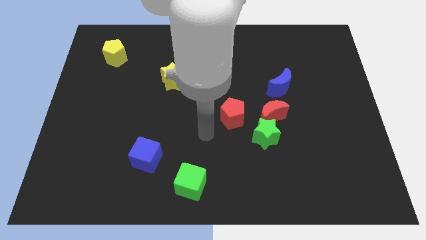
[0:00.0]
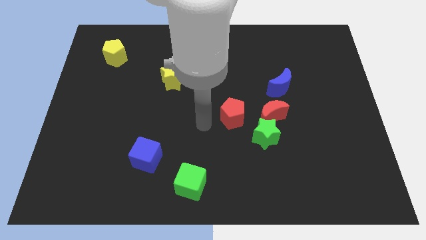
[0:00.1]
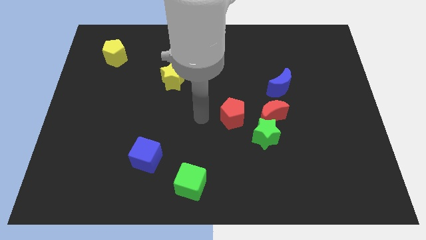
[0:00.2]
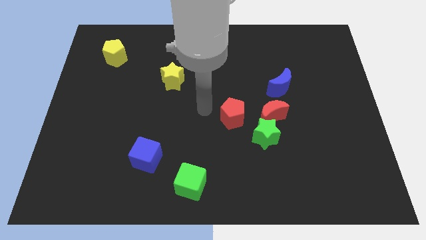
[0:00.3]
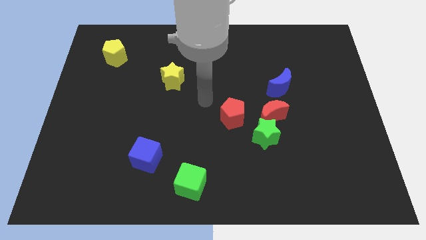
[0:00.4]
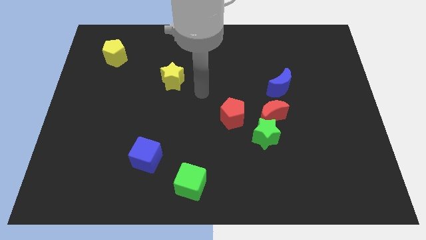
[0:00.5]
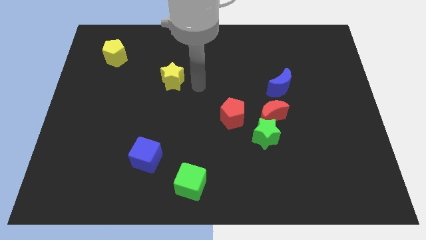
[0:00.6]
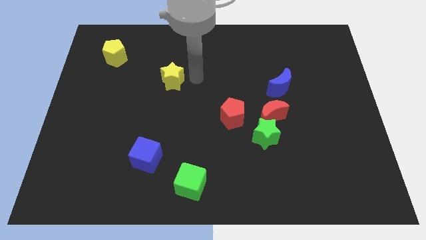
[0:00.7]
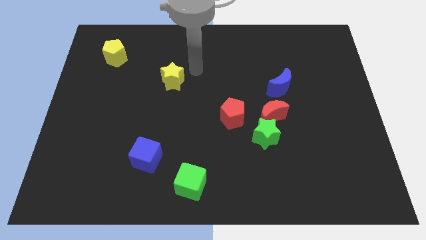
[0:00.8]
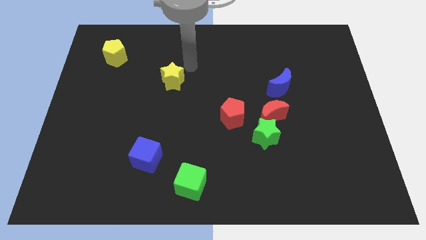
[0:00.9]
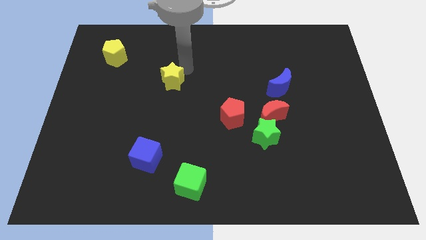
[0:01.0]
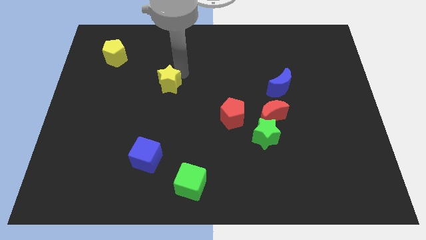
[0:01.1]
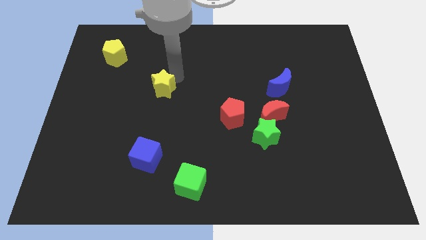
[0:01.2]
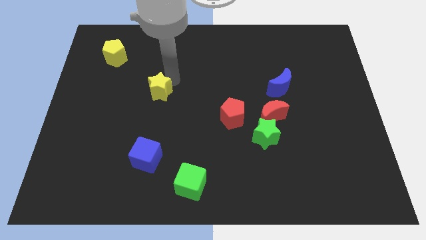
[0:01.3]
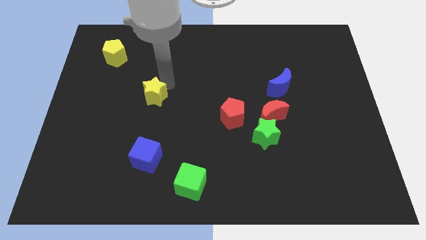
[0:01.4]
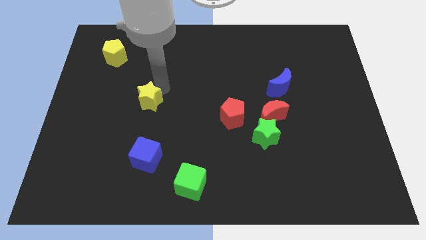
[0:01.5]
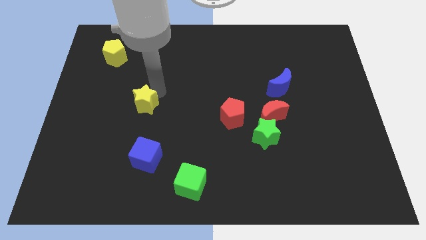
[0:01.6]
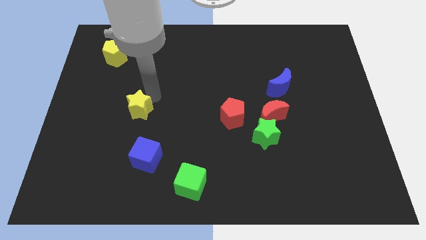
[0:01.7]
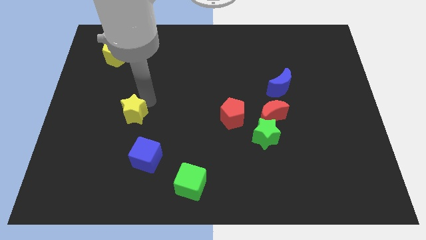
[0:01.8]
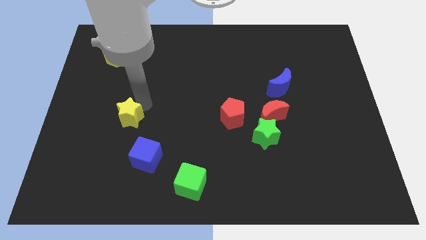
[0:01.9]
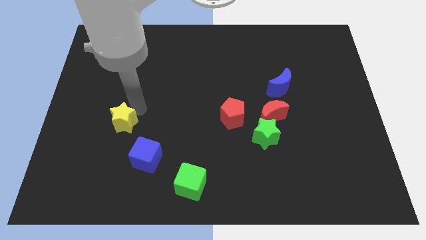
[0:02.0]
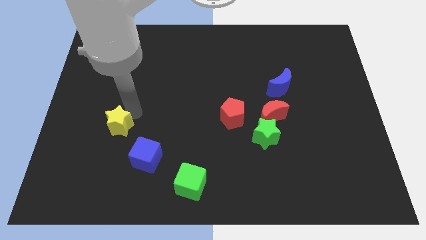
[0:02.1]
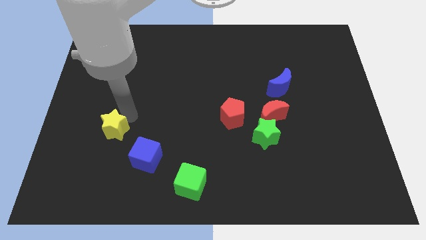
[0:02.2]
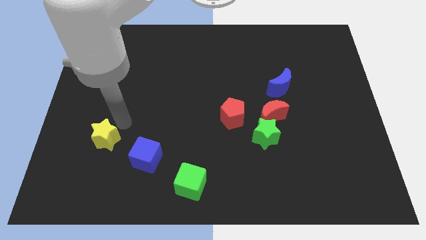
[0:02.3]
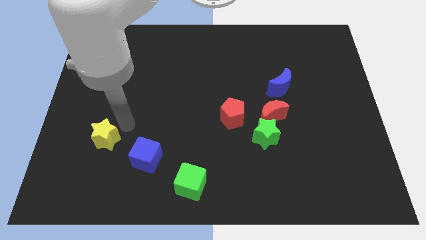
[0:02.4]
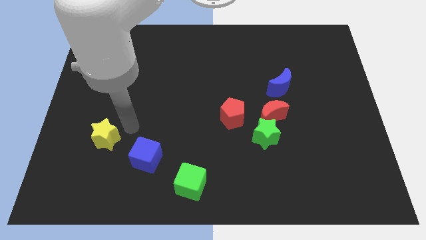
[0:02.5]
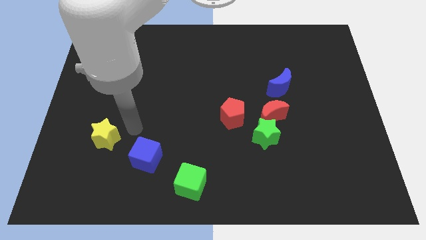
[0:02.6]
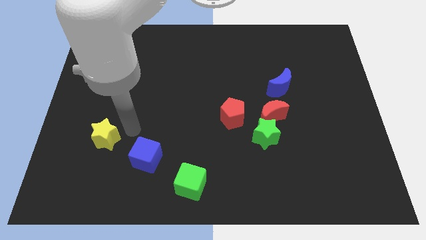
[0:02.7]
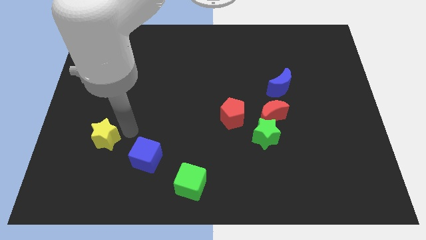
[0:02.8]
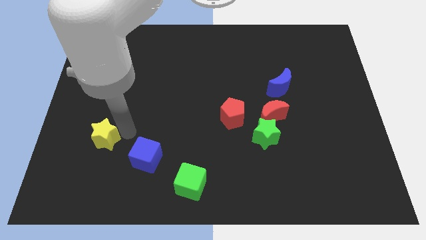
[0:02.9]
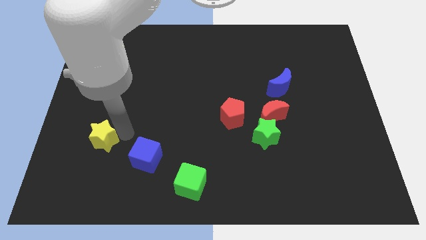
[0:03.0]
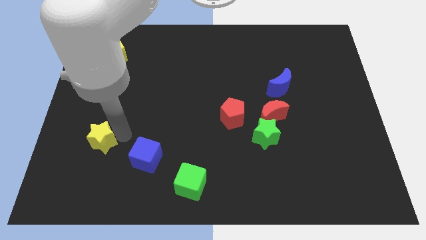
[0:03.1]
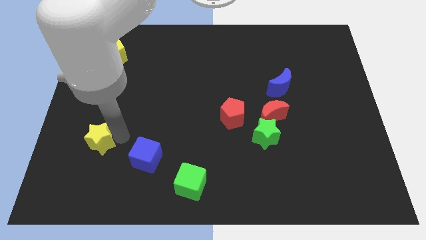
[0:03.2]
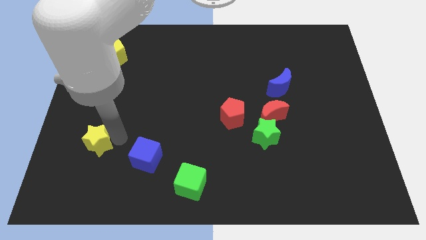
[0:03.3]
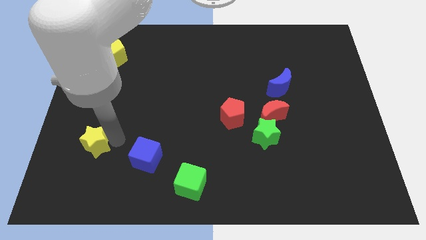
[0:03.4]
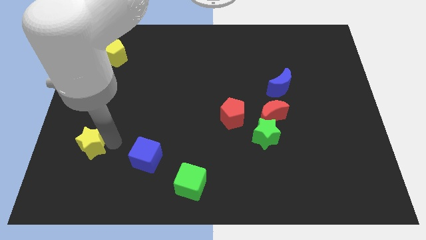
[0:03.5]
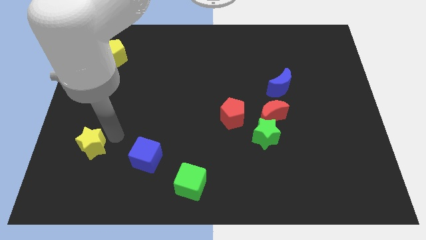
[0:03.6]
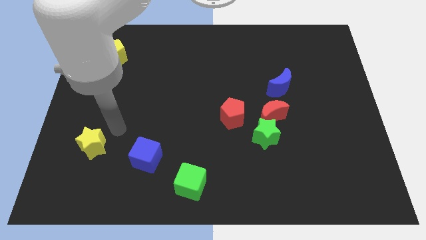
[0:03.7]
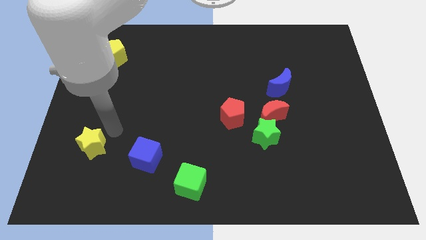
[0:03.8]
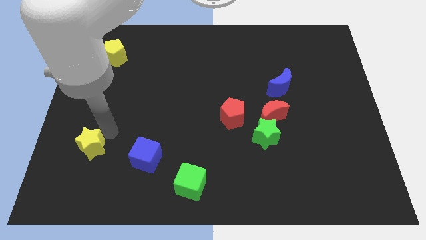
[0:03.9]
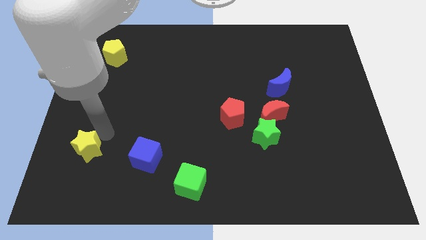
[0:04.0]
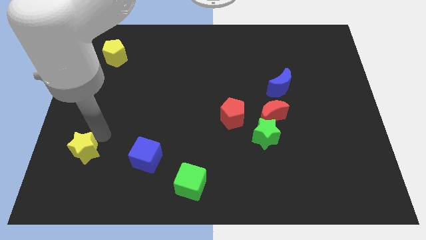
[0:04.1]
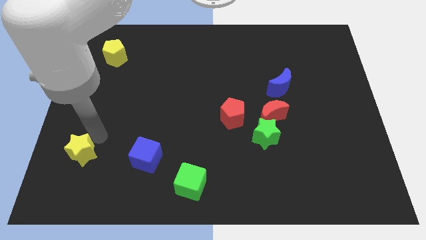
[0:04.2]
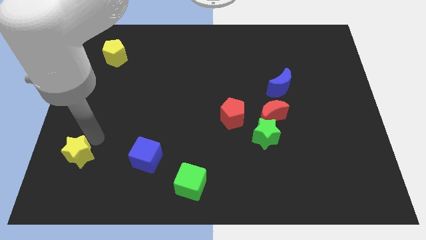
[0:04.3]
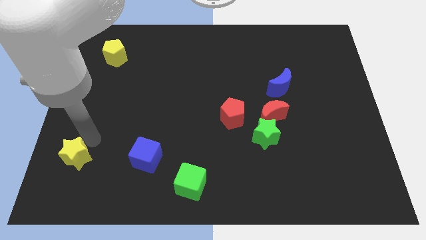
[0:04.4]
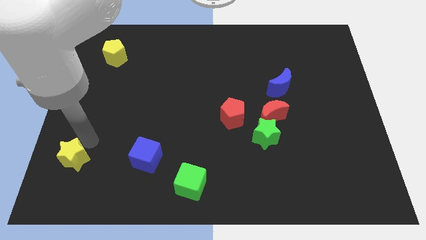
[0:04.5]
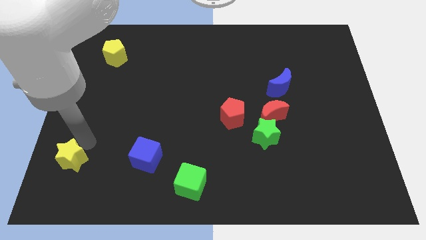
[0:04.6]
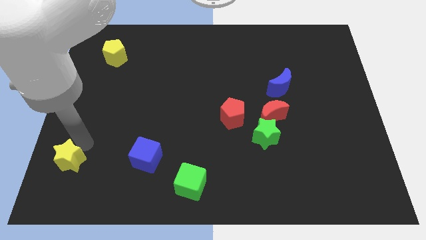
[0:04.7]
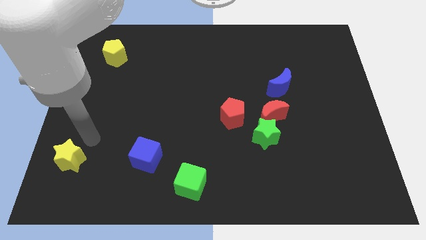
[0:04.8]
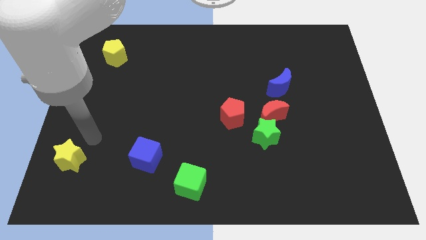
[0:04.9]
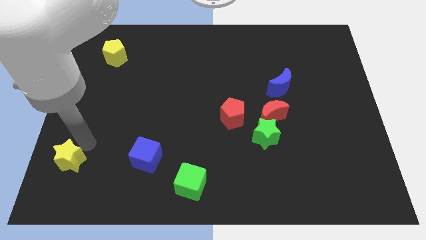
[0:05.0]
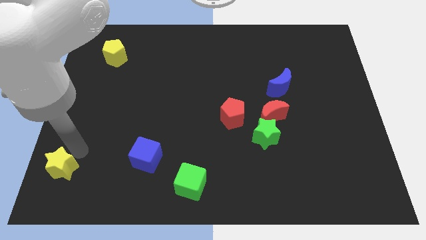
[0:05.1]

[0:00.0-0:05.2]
move the yellow star to the bottom left

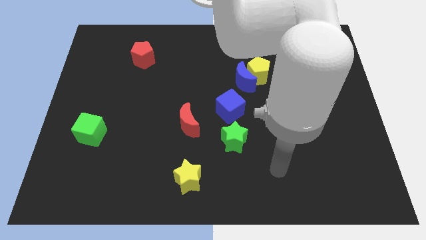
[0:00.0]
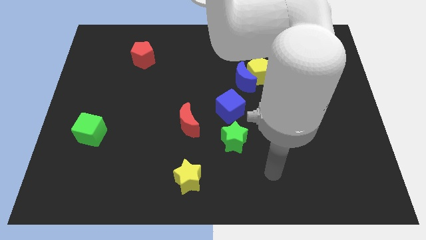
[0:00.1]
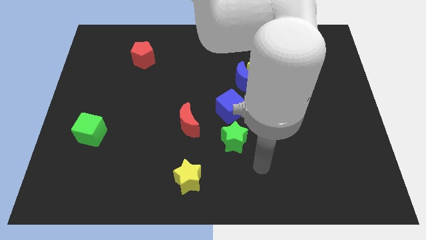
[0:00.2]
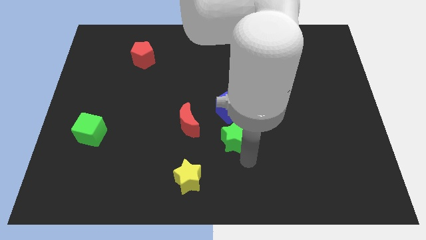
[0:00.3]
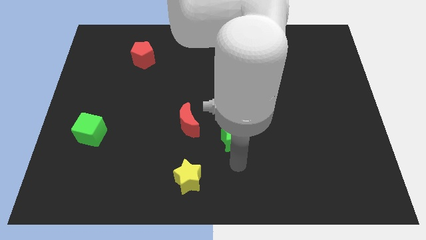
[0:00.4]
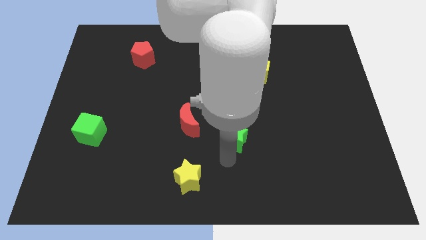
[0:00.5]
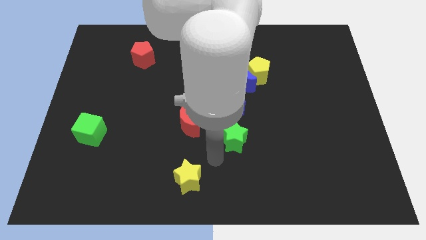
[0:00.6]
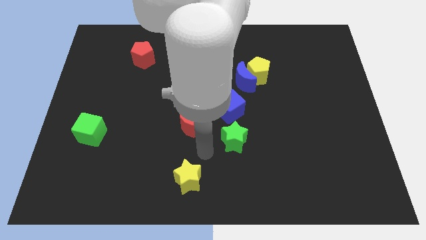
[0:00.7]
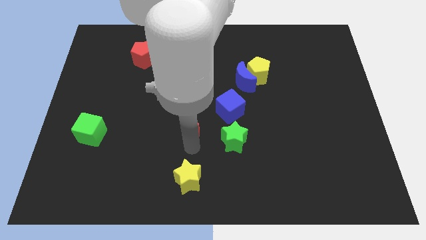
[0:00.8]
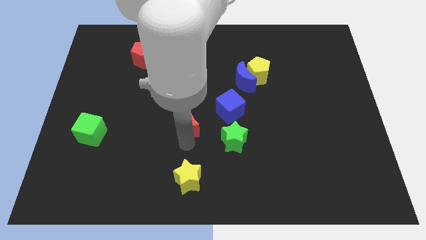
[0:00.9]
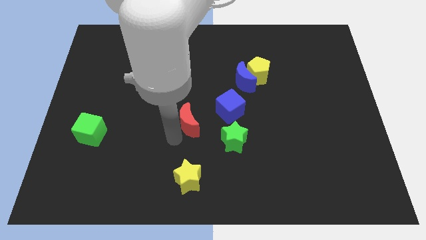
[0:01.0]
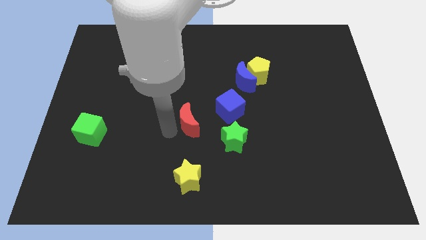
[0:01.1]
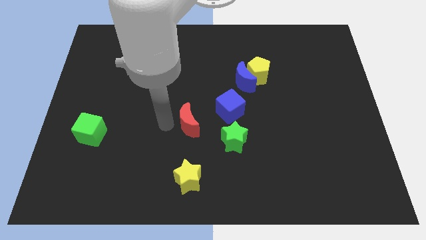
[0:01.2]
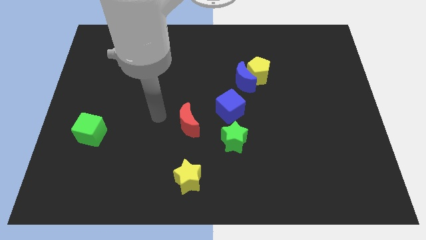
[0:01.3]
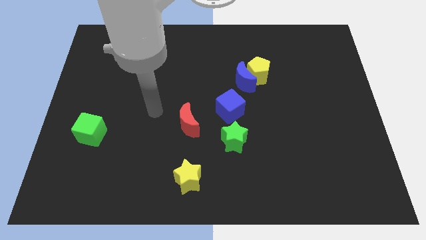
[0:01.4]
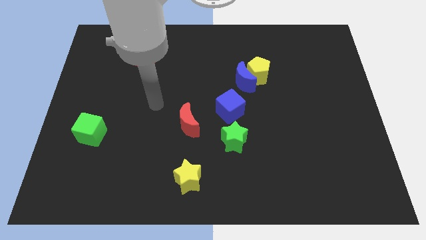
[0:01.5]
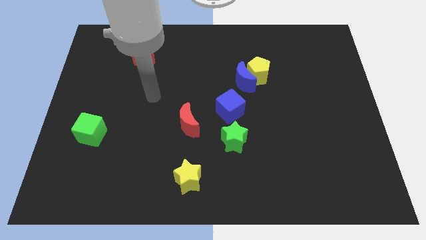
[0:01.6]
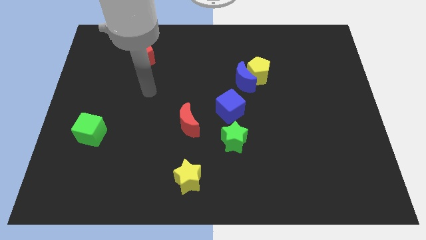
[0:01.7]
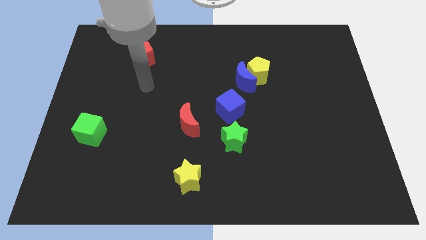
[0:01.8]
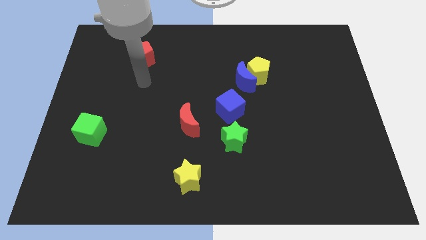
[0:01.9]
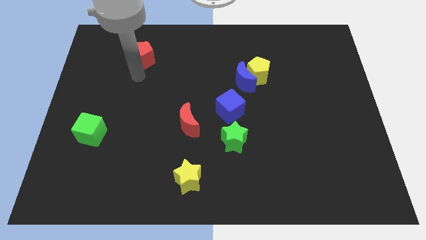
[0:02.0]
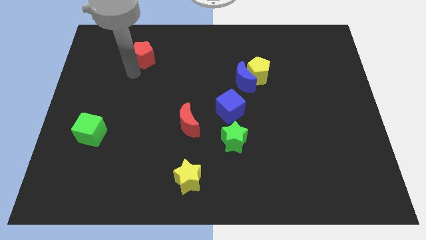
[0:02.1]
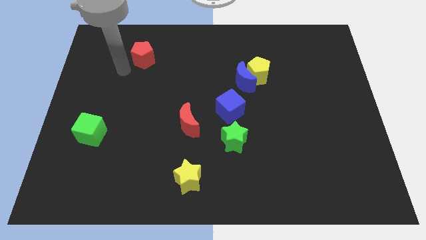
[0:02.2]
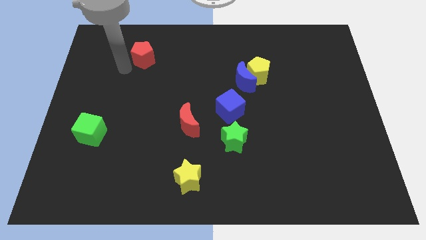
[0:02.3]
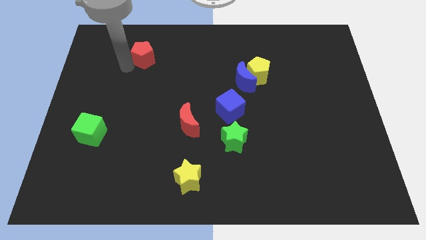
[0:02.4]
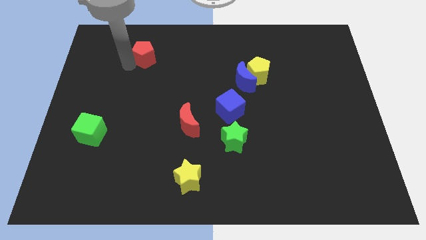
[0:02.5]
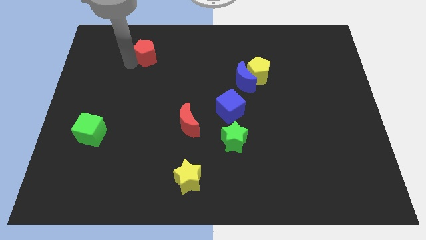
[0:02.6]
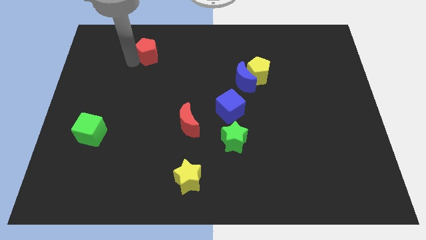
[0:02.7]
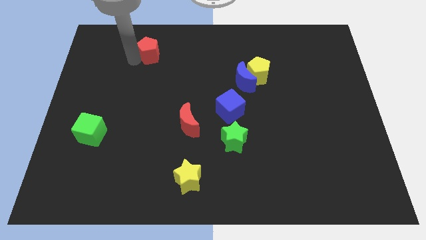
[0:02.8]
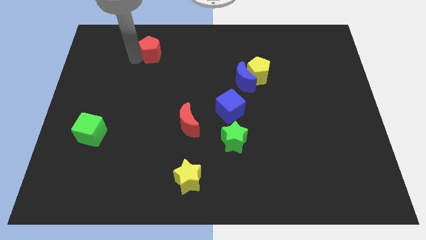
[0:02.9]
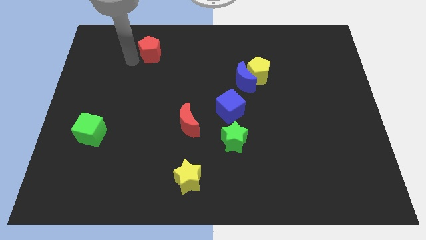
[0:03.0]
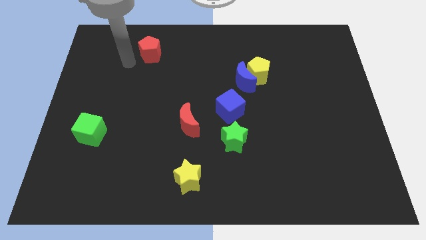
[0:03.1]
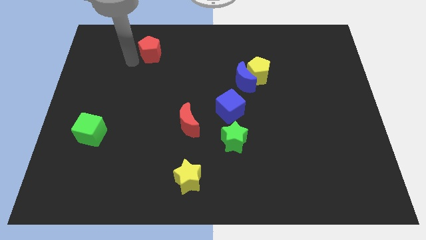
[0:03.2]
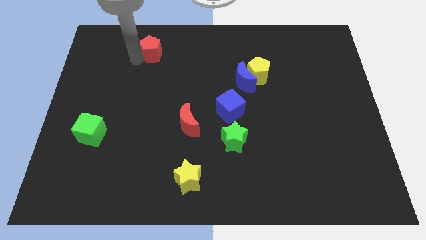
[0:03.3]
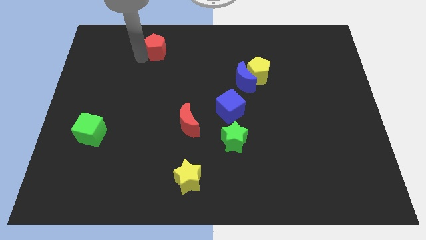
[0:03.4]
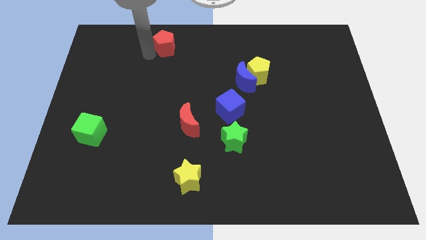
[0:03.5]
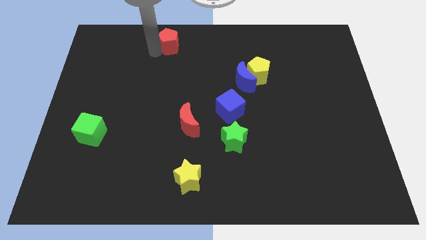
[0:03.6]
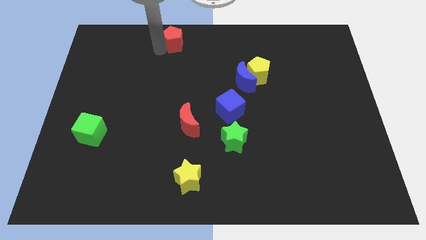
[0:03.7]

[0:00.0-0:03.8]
push the red pentagon to the towards your base
